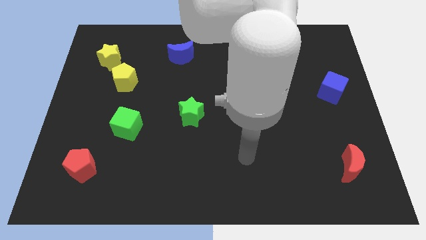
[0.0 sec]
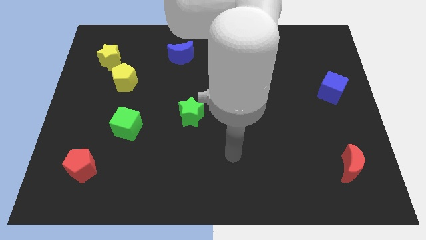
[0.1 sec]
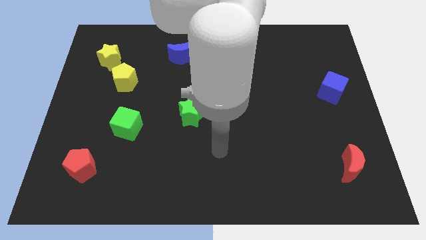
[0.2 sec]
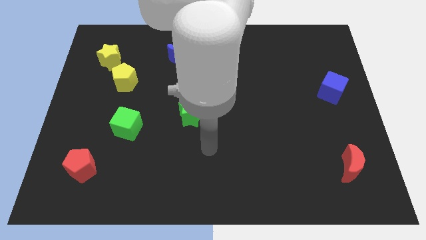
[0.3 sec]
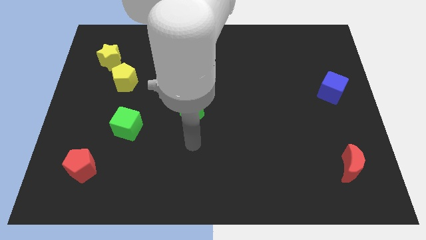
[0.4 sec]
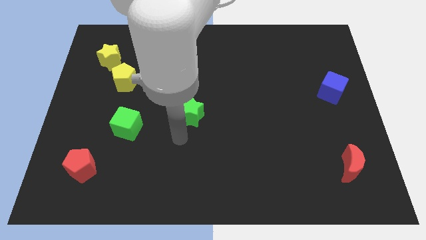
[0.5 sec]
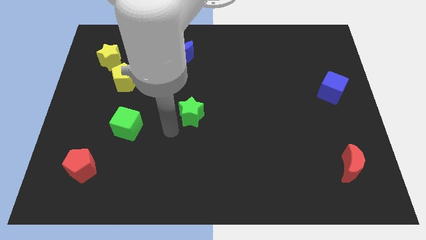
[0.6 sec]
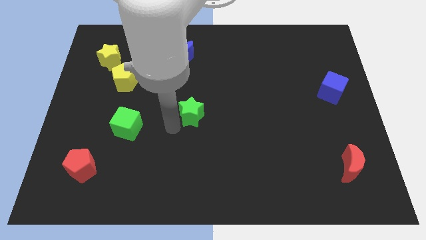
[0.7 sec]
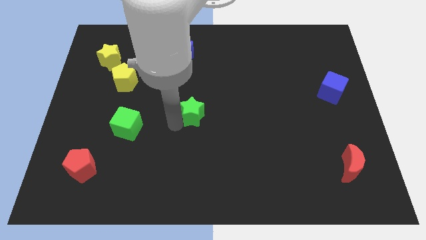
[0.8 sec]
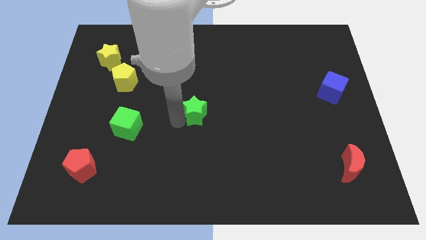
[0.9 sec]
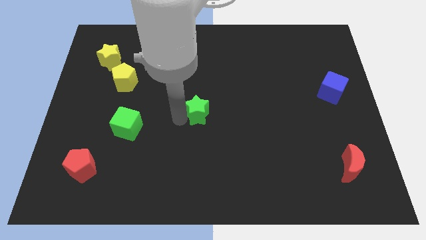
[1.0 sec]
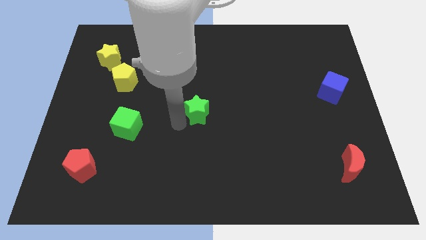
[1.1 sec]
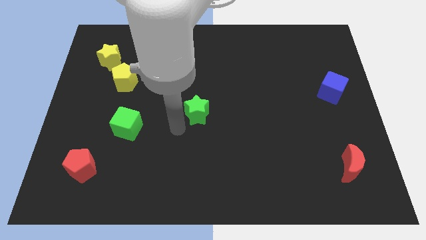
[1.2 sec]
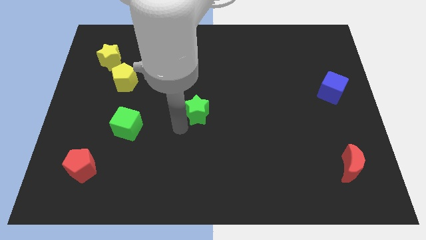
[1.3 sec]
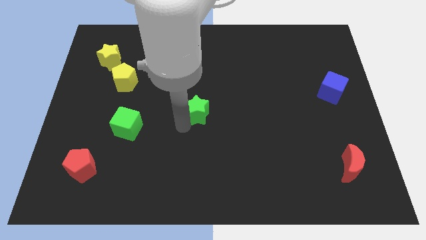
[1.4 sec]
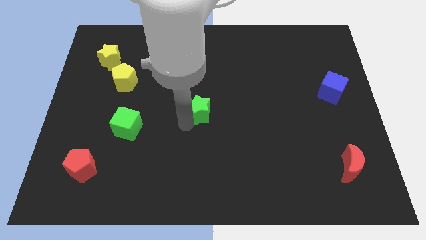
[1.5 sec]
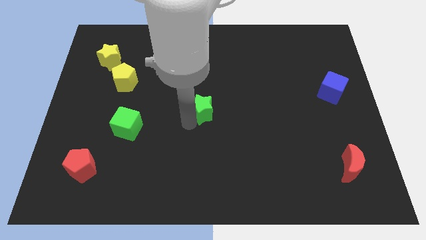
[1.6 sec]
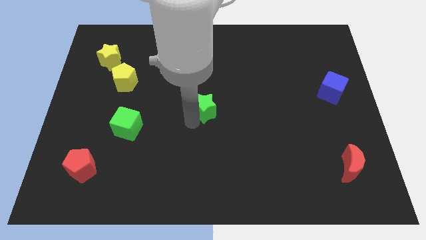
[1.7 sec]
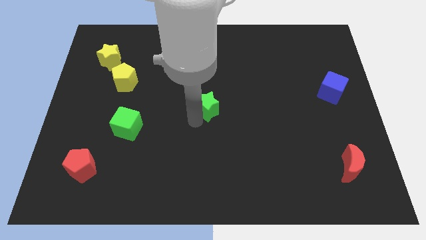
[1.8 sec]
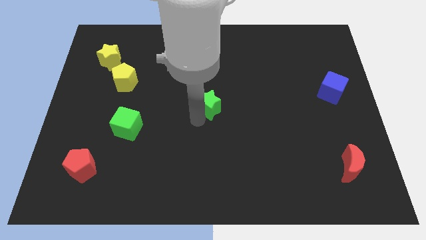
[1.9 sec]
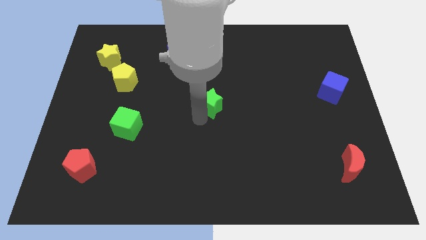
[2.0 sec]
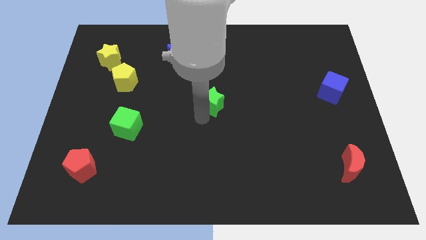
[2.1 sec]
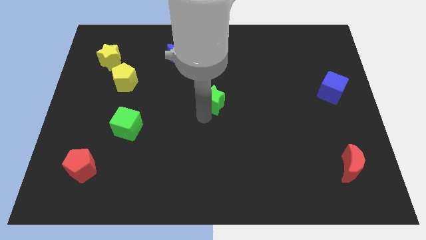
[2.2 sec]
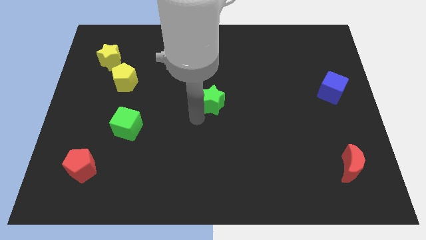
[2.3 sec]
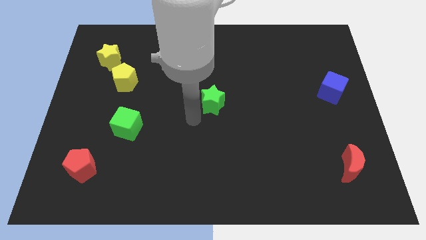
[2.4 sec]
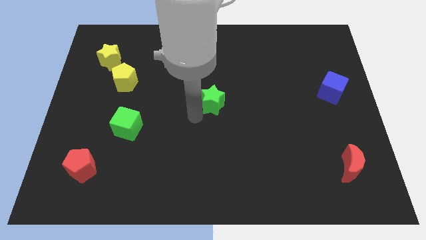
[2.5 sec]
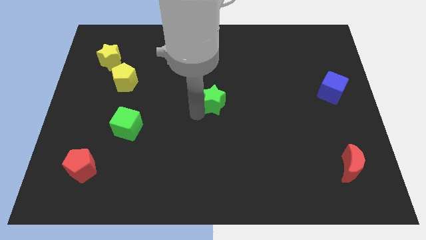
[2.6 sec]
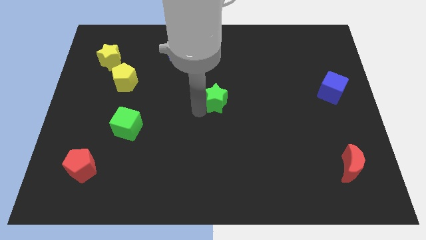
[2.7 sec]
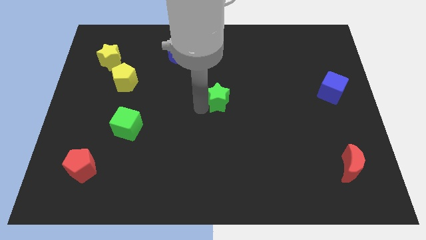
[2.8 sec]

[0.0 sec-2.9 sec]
slide the green star slightly diagonally upwards and right

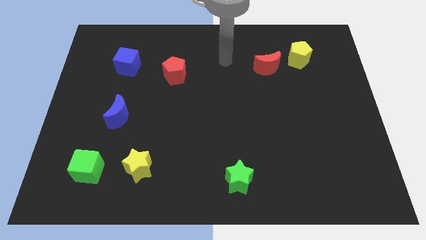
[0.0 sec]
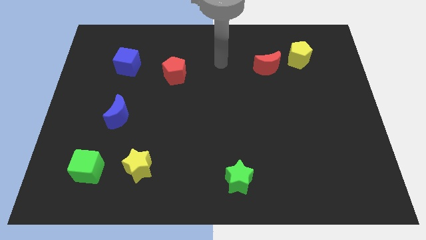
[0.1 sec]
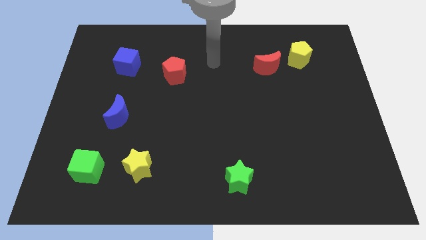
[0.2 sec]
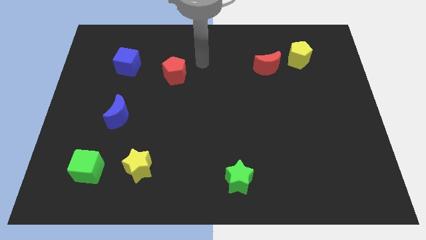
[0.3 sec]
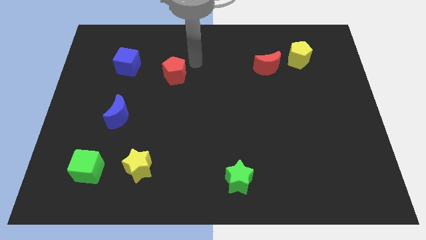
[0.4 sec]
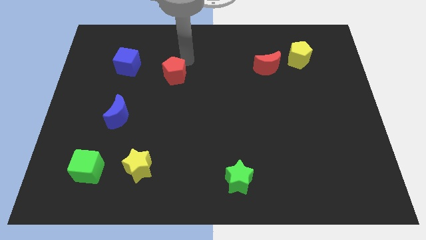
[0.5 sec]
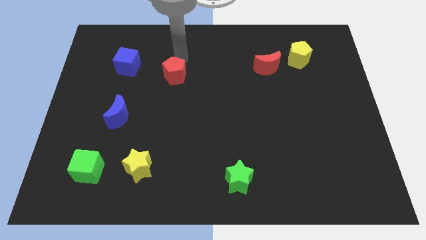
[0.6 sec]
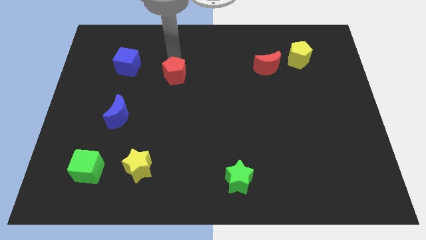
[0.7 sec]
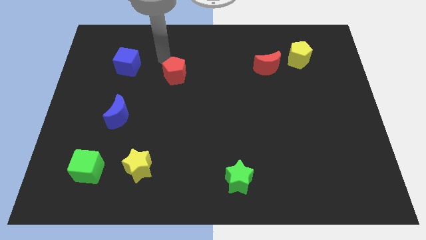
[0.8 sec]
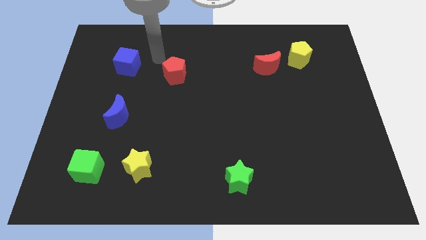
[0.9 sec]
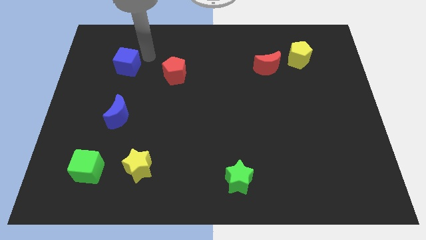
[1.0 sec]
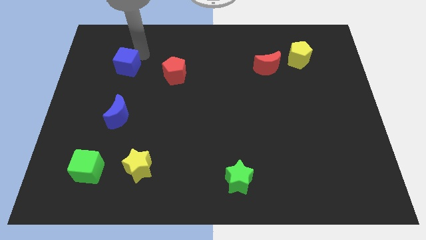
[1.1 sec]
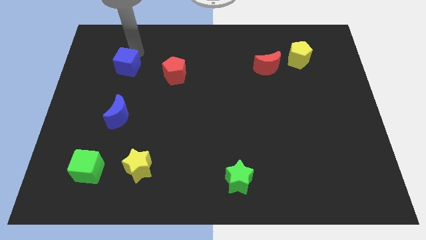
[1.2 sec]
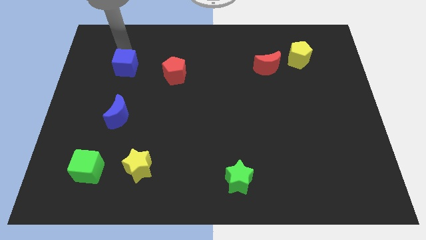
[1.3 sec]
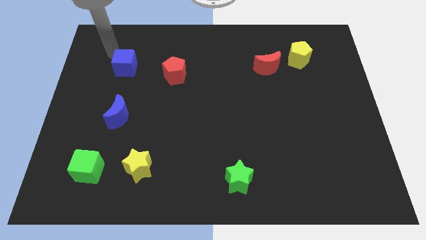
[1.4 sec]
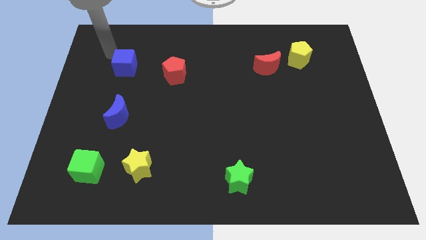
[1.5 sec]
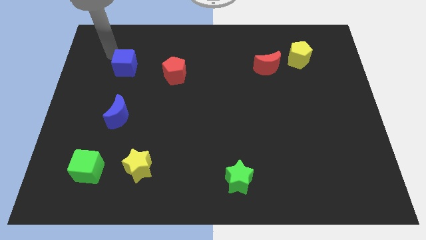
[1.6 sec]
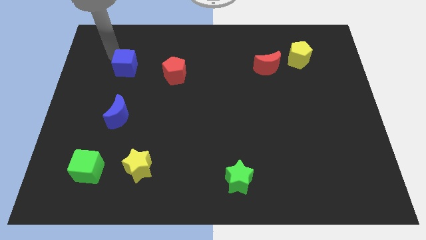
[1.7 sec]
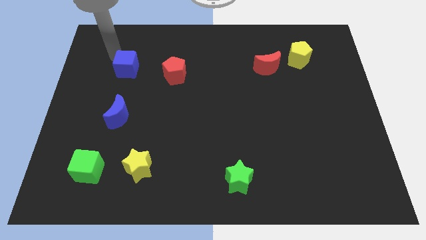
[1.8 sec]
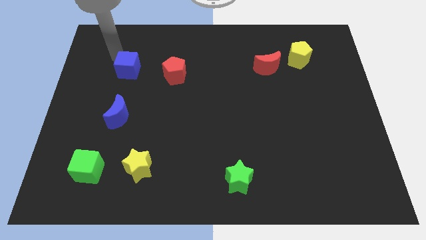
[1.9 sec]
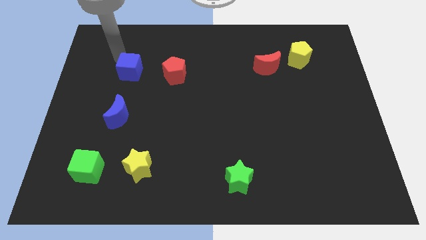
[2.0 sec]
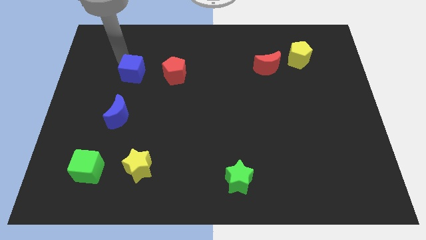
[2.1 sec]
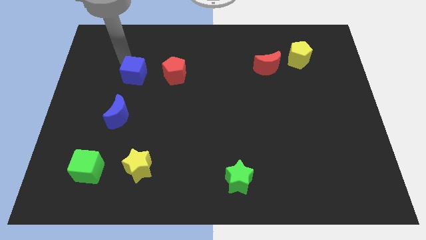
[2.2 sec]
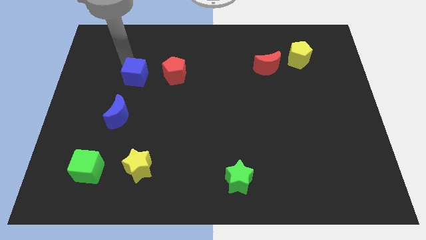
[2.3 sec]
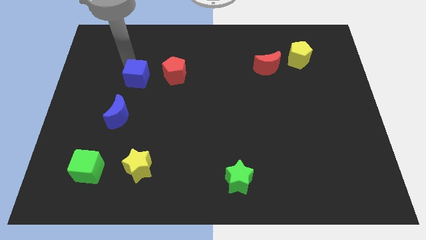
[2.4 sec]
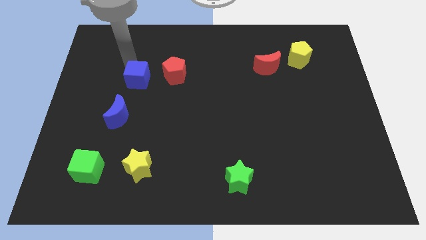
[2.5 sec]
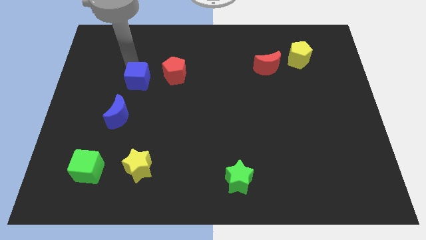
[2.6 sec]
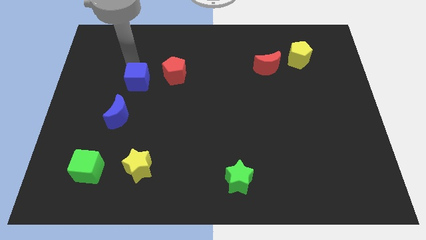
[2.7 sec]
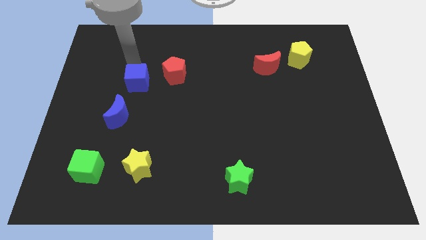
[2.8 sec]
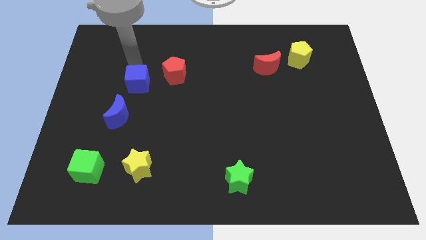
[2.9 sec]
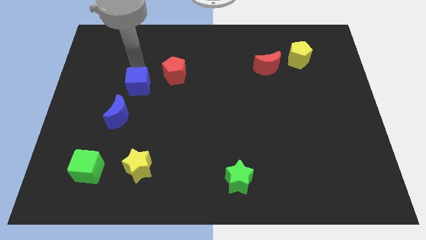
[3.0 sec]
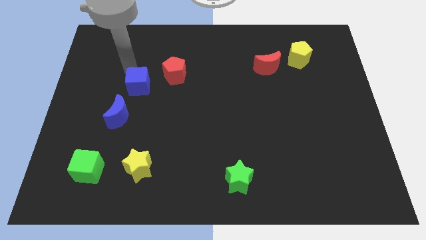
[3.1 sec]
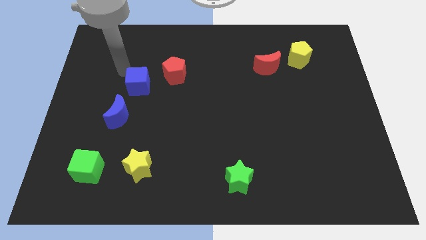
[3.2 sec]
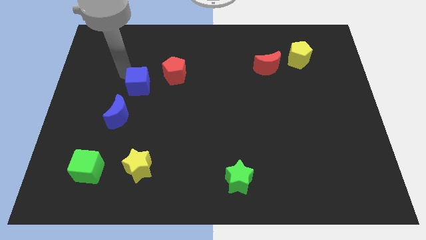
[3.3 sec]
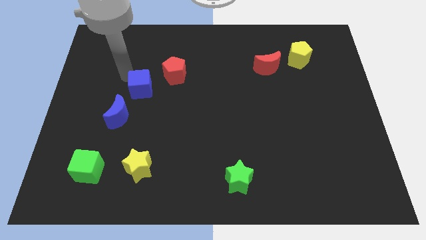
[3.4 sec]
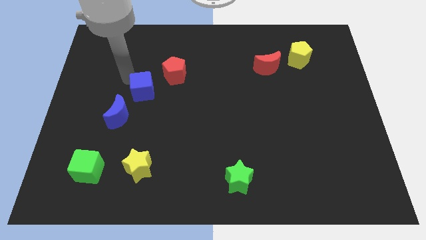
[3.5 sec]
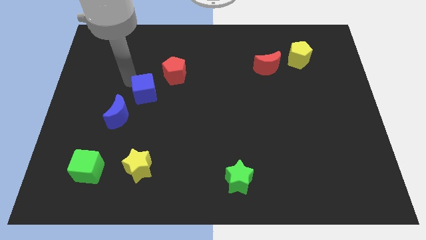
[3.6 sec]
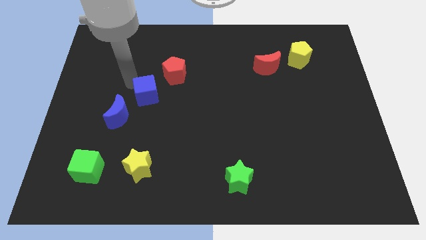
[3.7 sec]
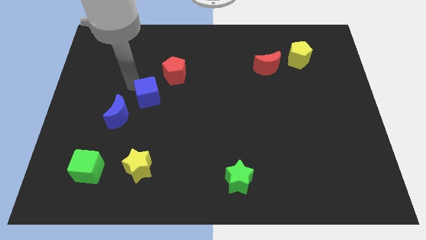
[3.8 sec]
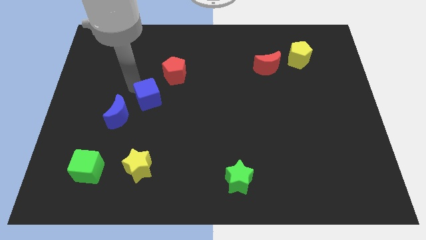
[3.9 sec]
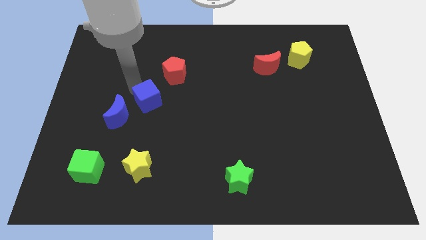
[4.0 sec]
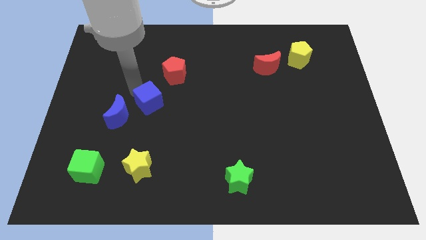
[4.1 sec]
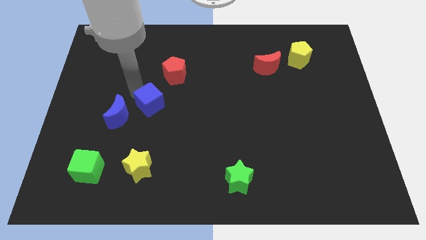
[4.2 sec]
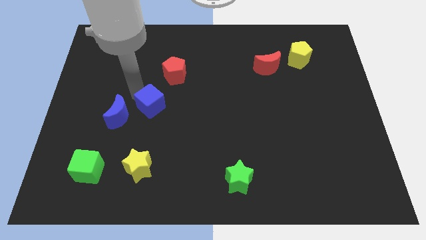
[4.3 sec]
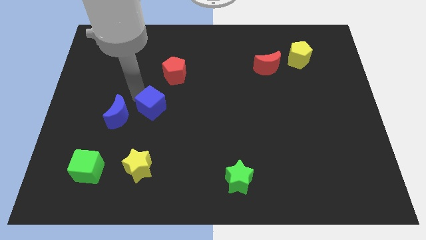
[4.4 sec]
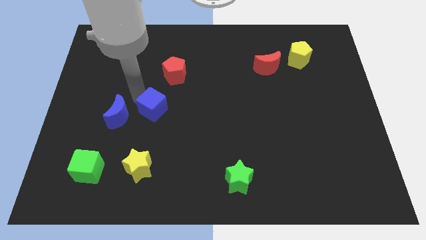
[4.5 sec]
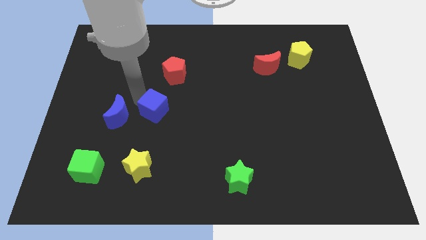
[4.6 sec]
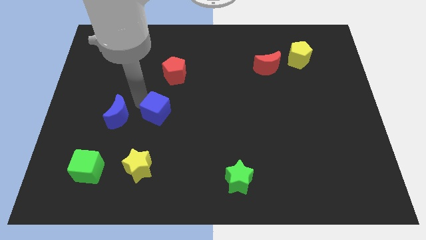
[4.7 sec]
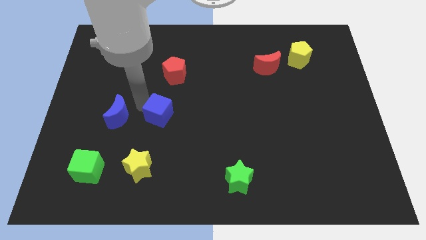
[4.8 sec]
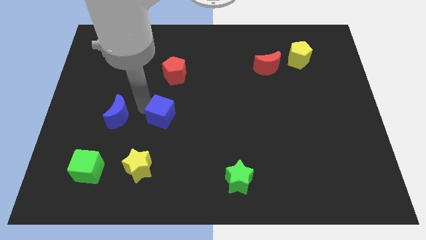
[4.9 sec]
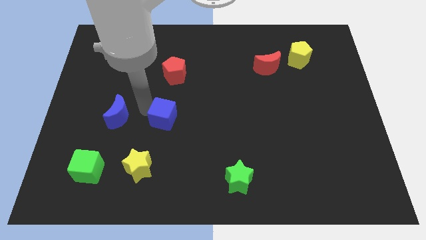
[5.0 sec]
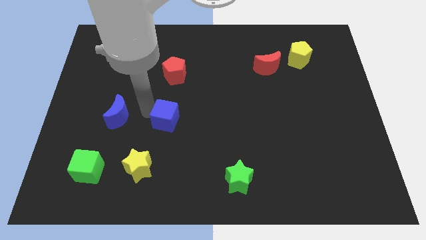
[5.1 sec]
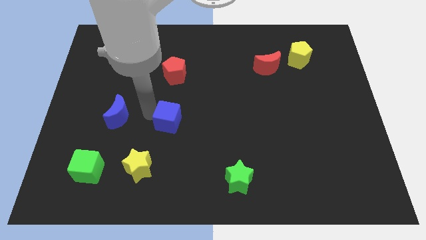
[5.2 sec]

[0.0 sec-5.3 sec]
slide the blue cube diagonally downwards and right

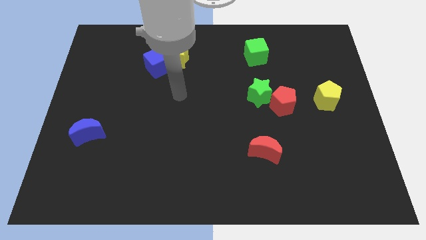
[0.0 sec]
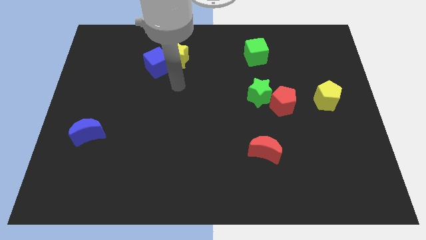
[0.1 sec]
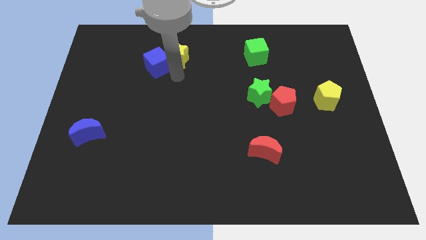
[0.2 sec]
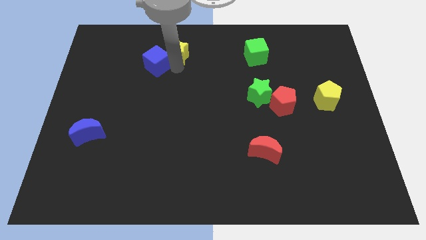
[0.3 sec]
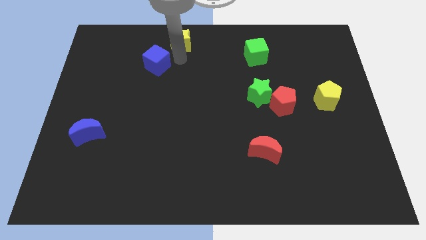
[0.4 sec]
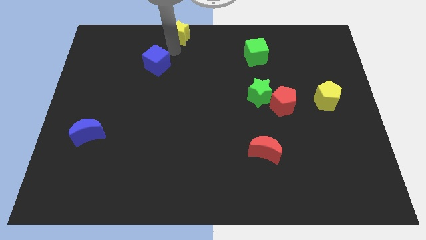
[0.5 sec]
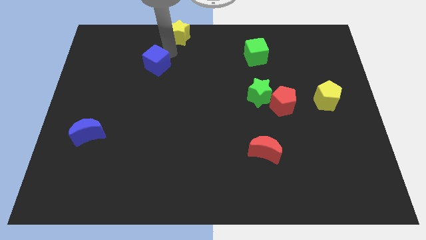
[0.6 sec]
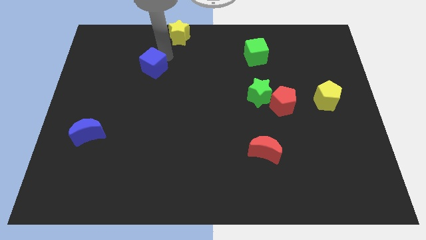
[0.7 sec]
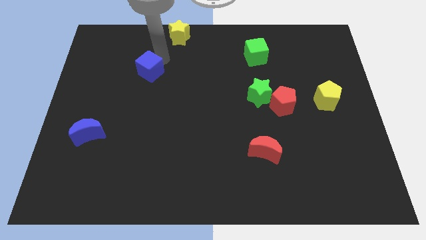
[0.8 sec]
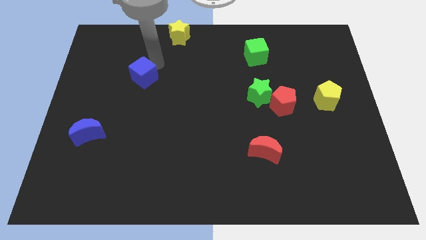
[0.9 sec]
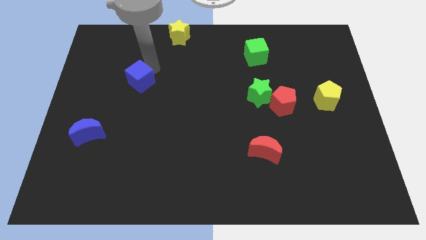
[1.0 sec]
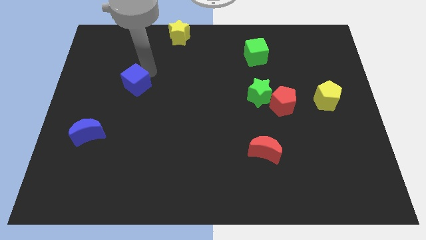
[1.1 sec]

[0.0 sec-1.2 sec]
slide the blue cube downwards and left diagonally somewhat
